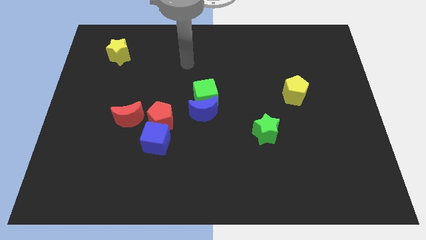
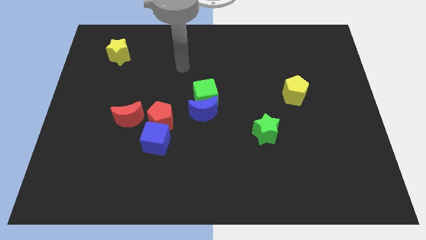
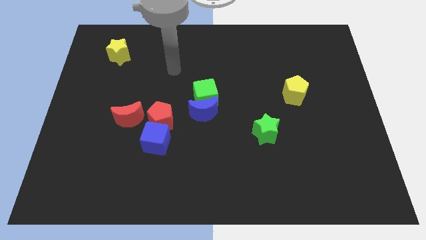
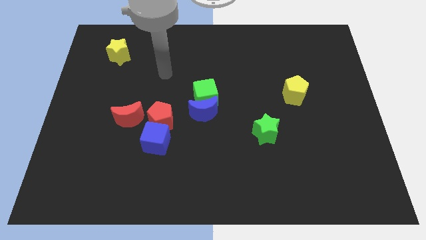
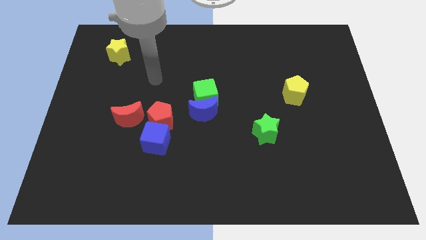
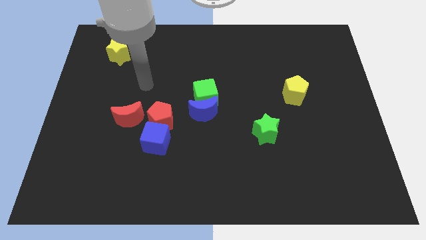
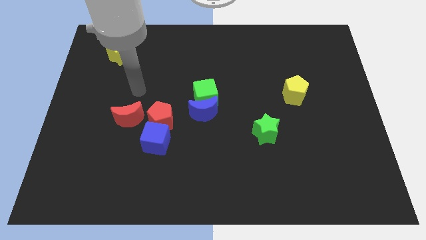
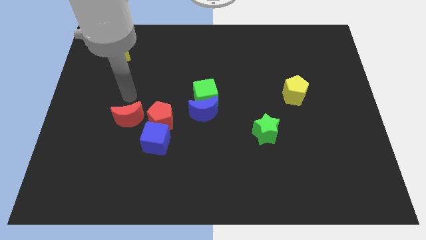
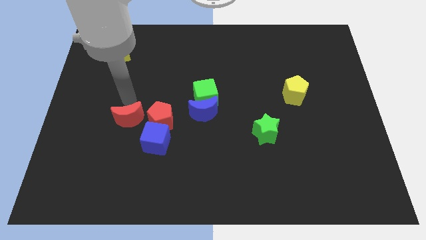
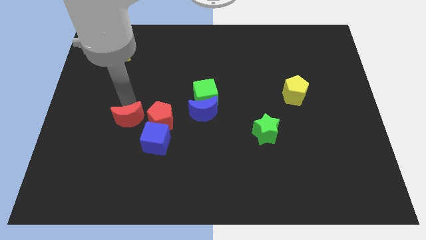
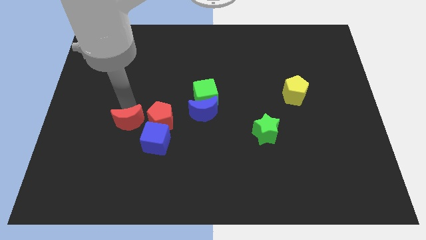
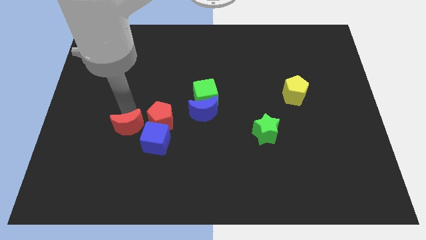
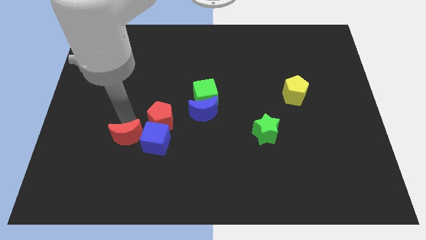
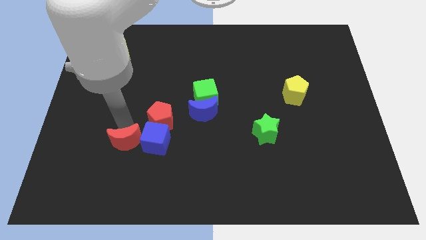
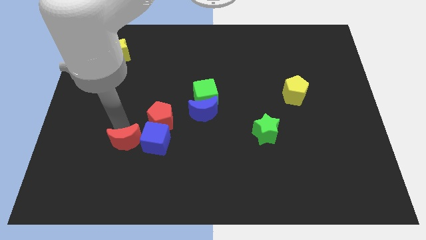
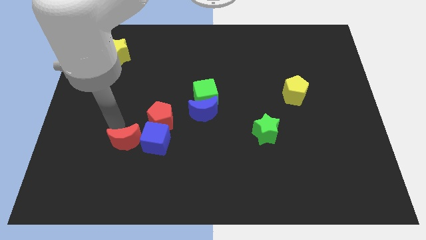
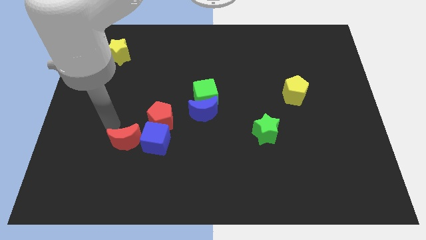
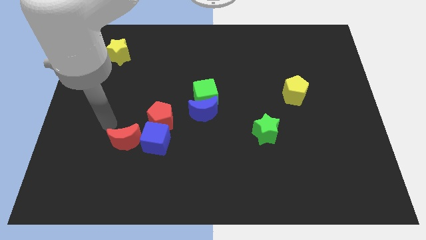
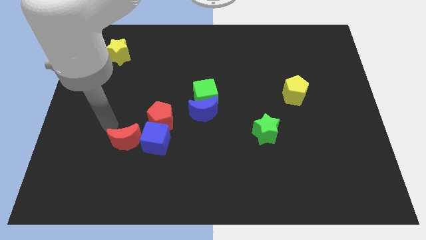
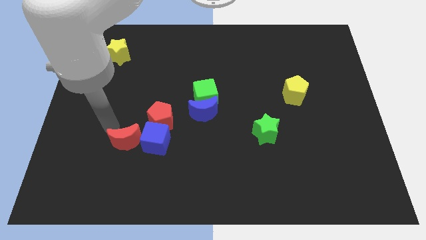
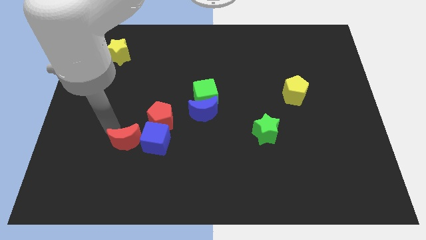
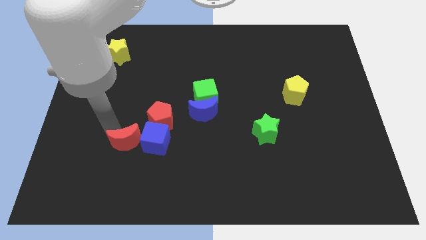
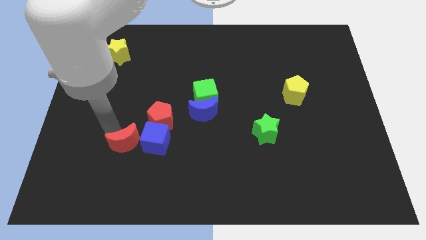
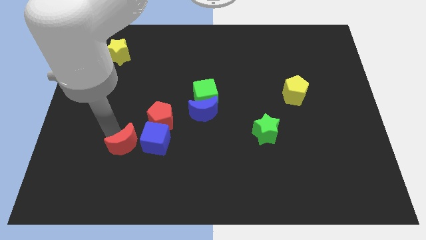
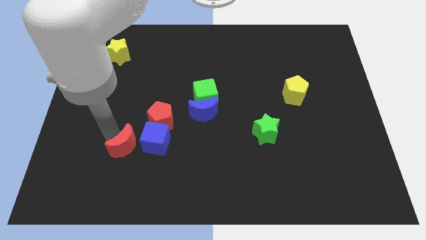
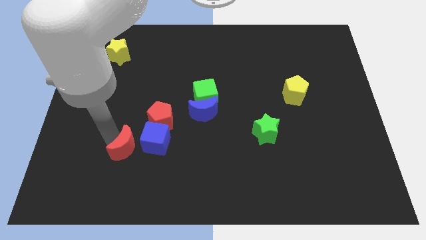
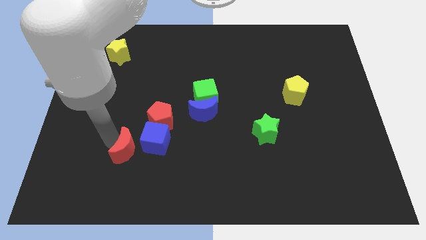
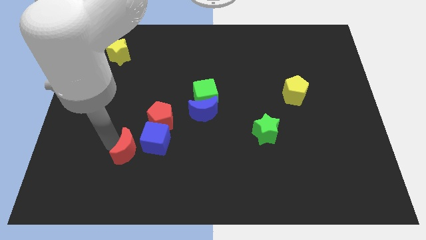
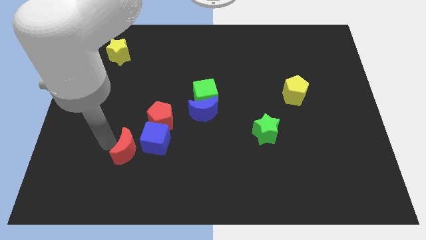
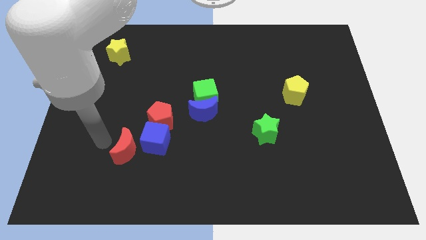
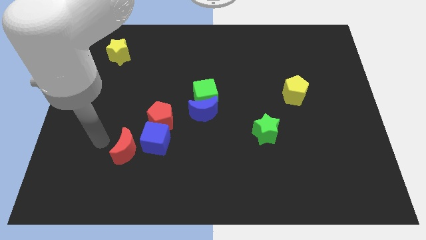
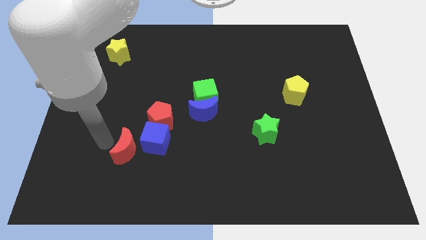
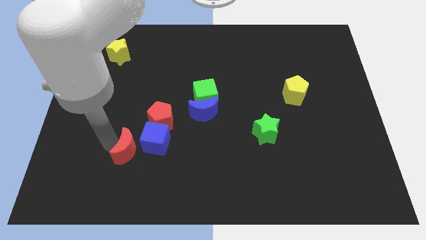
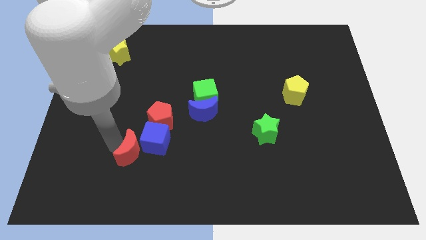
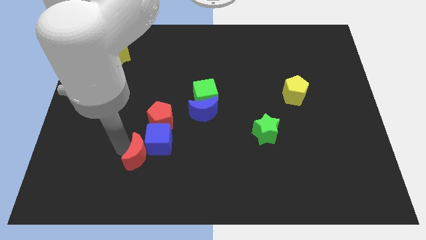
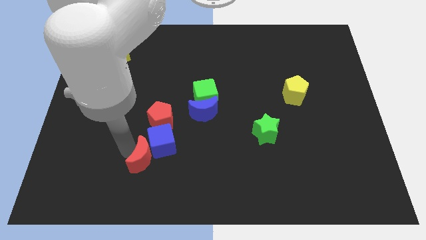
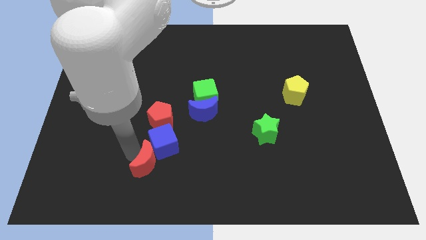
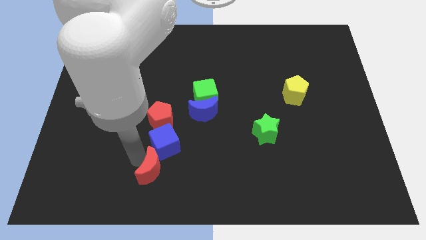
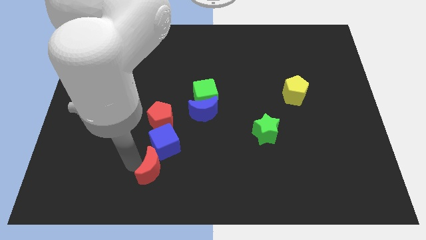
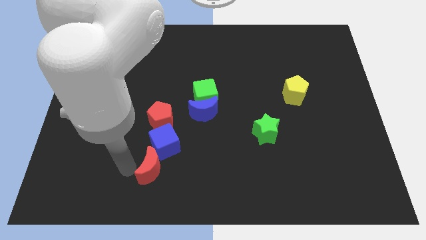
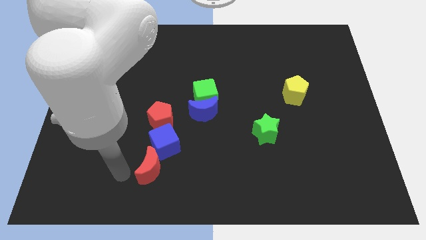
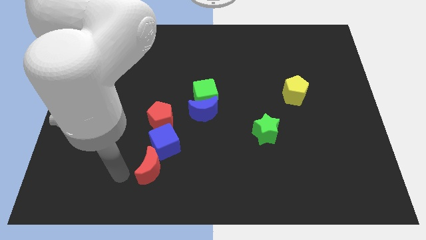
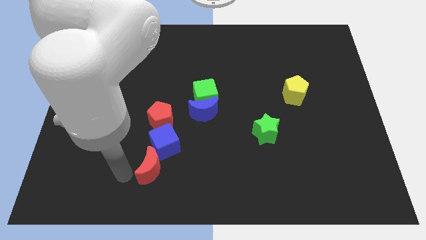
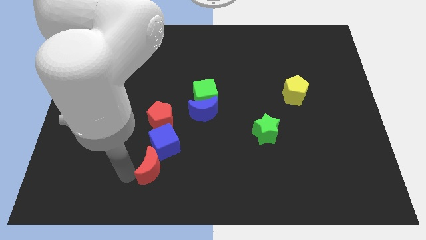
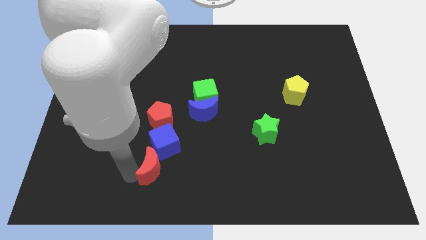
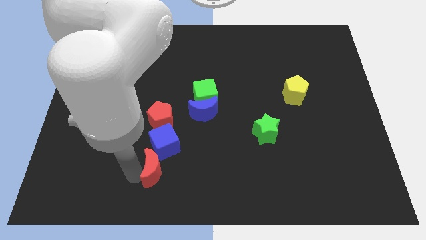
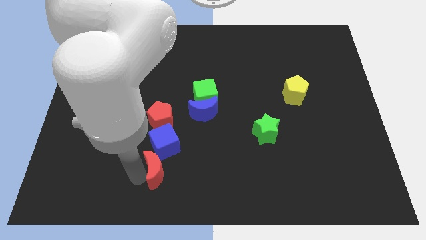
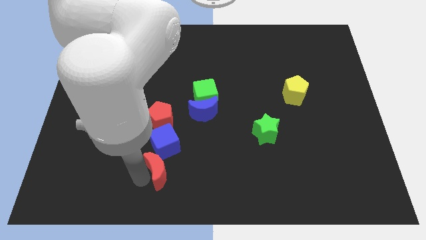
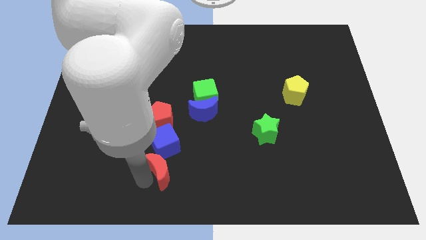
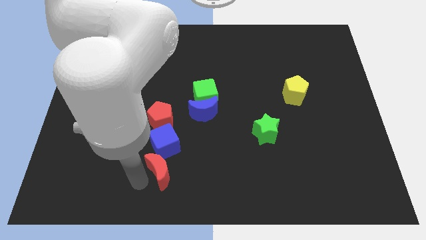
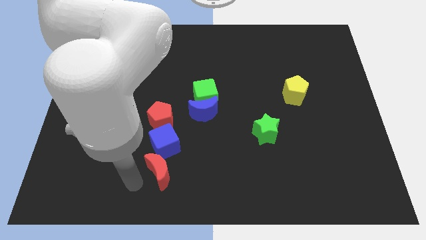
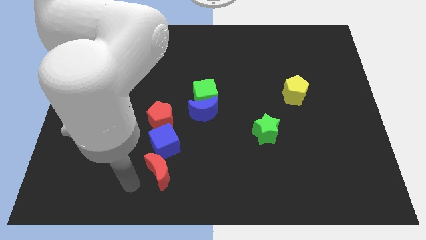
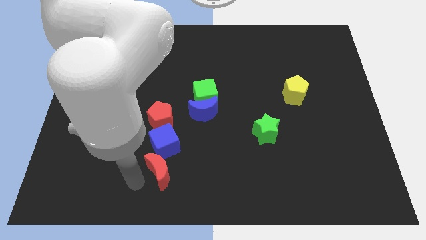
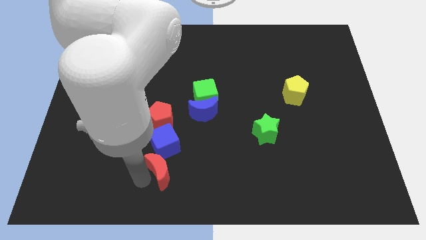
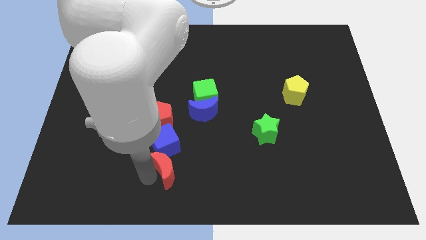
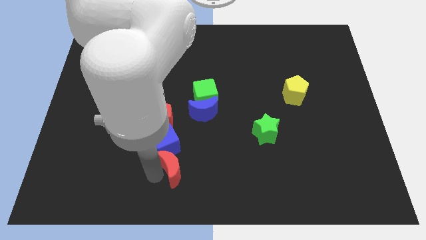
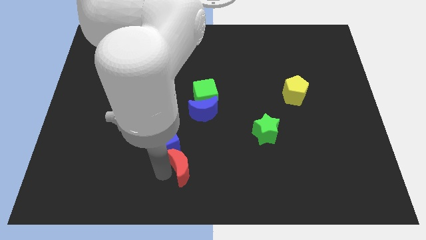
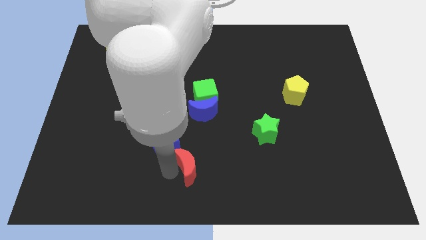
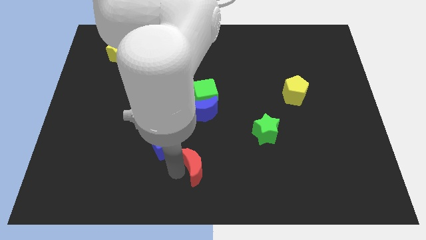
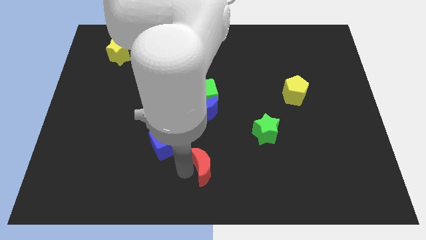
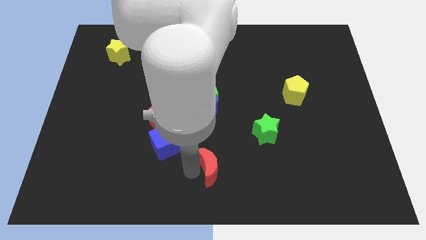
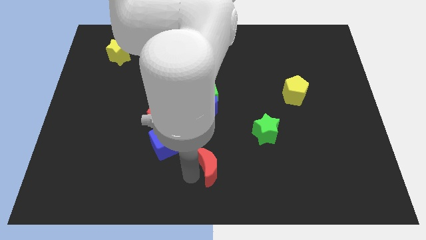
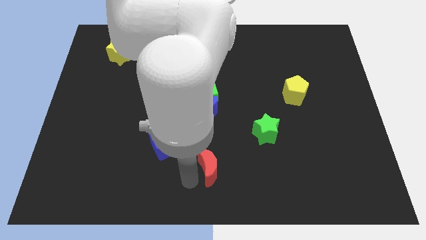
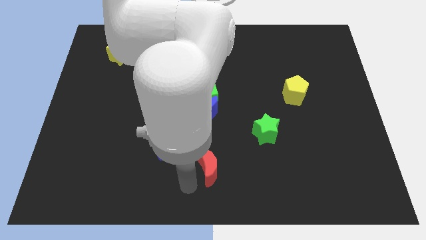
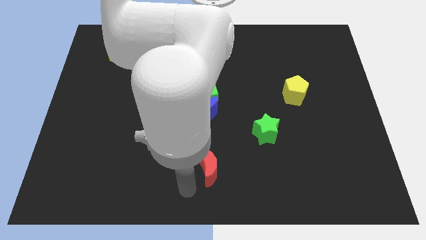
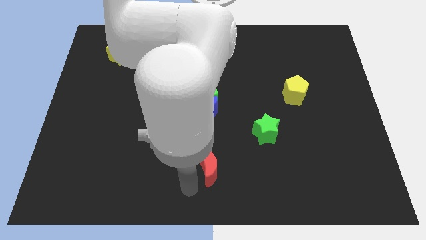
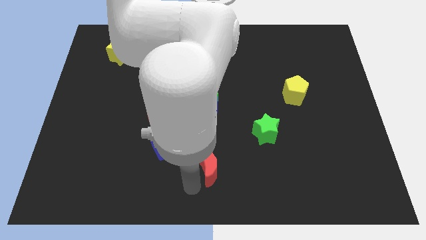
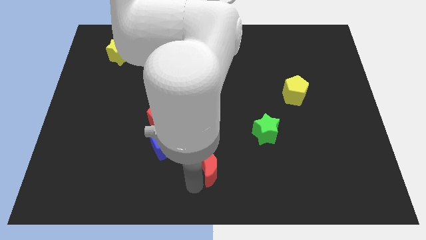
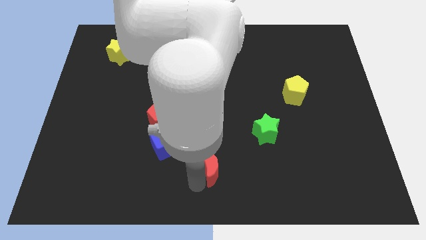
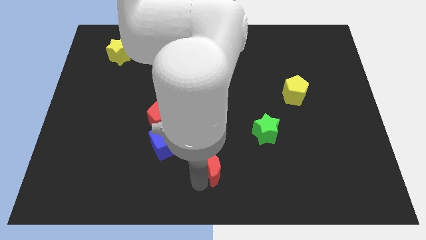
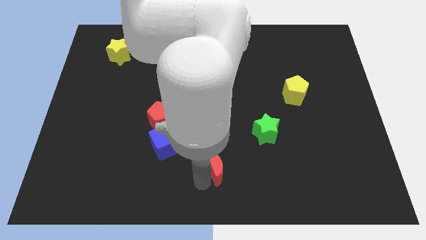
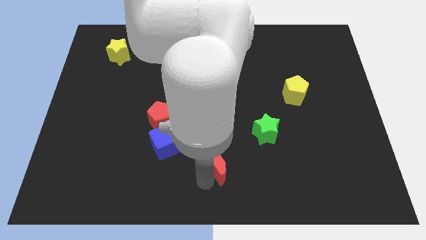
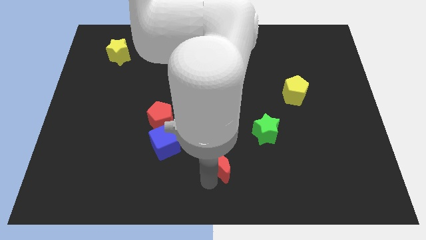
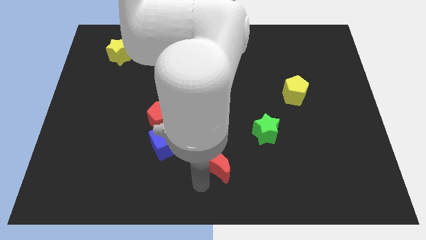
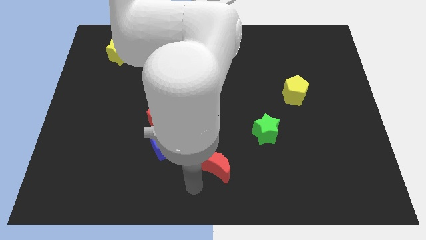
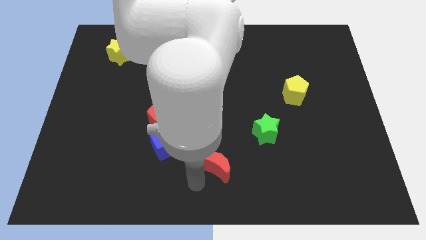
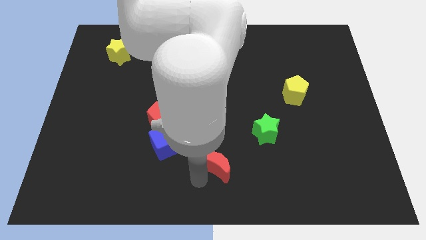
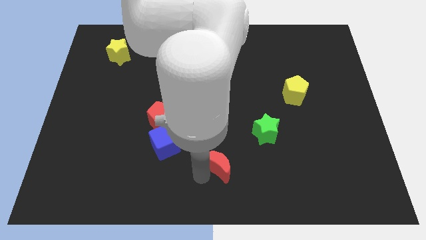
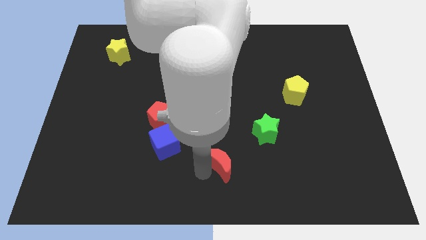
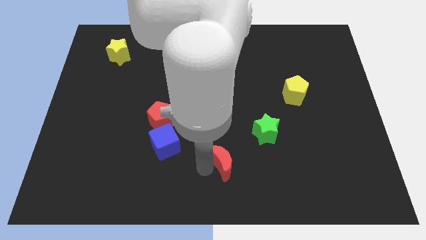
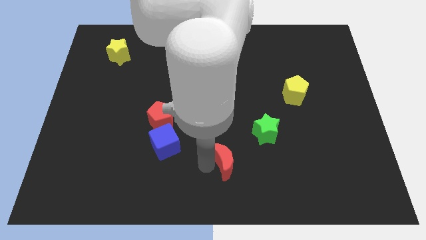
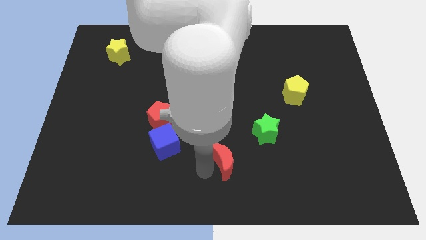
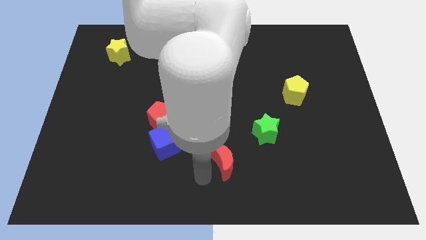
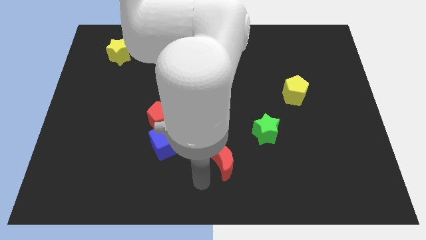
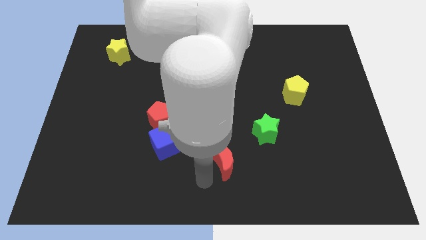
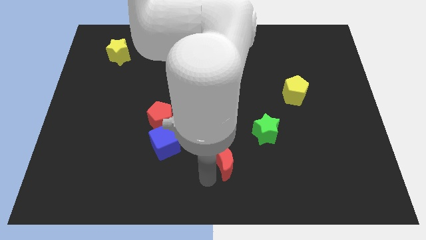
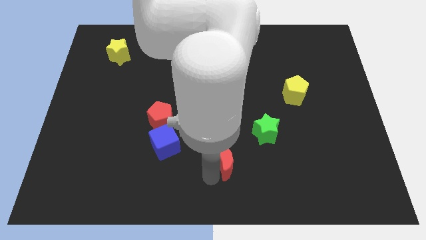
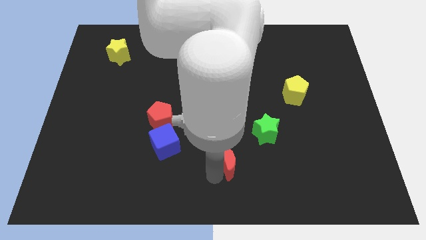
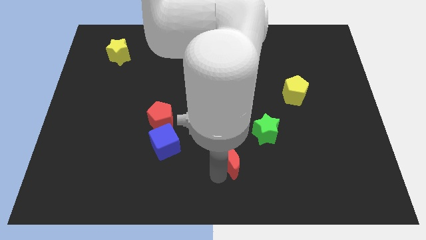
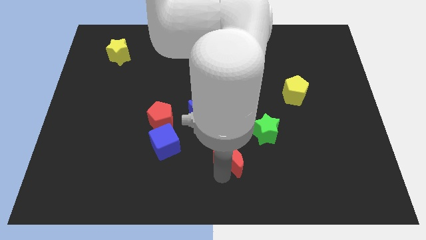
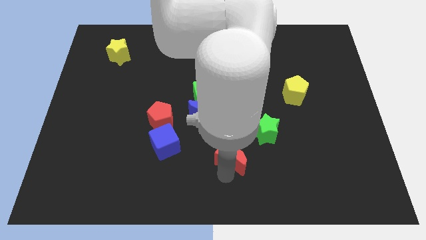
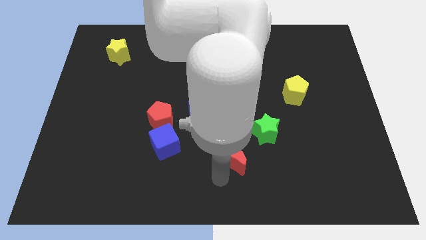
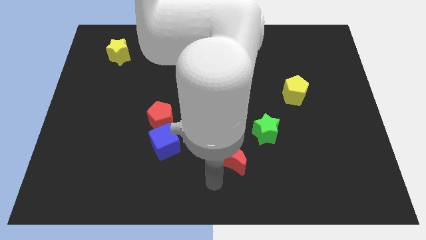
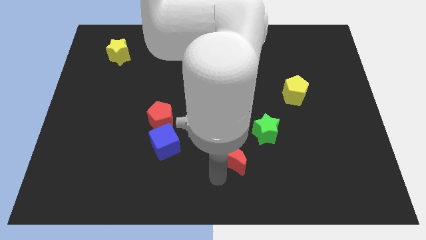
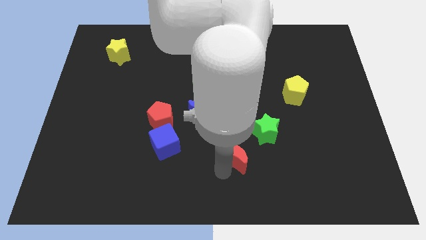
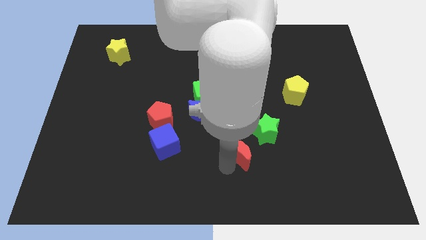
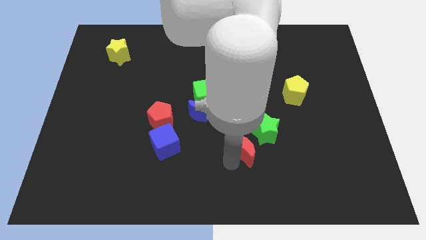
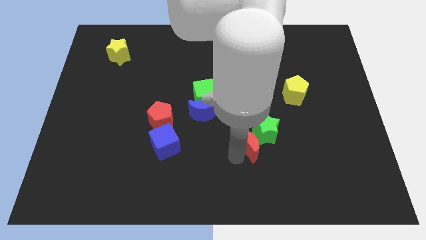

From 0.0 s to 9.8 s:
put the red moon to the green star
